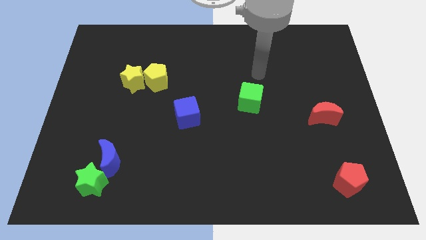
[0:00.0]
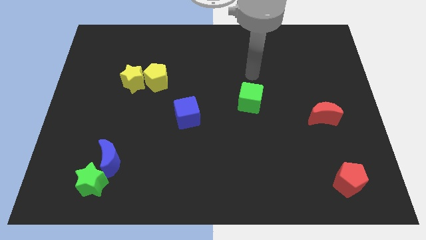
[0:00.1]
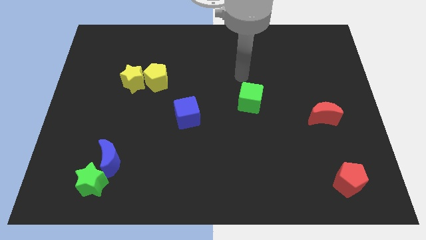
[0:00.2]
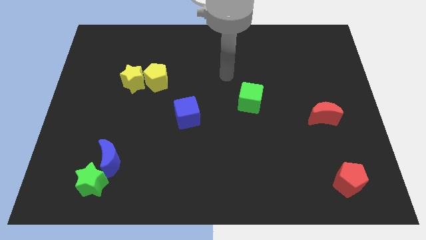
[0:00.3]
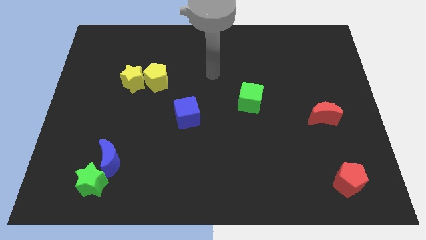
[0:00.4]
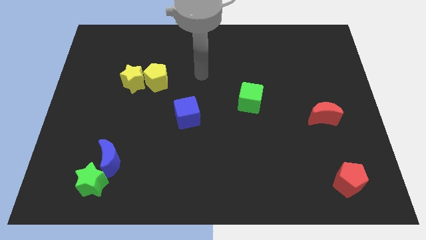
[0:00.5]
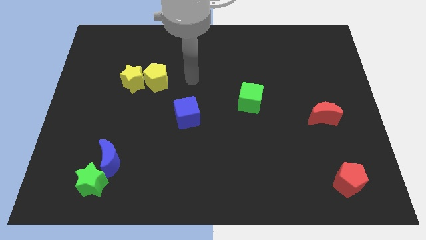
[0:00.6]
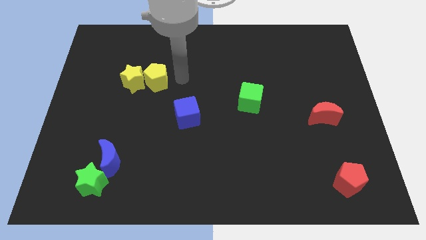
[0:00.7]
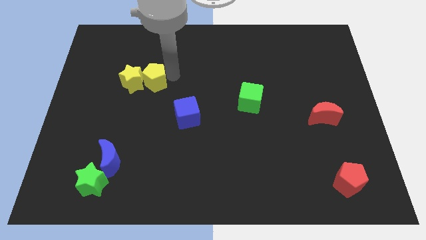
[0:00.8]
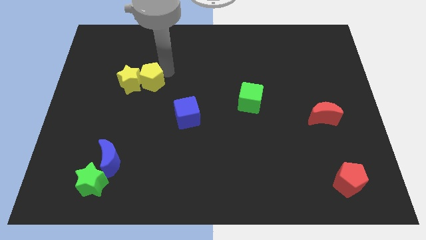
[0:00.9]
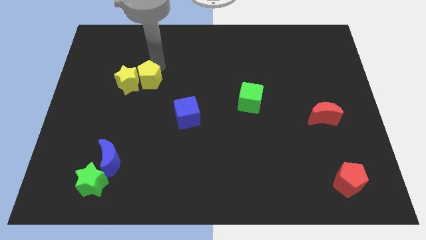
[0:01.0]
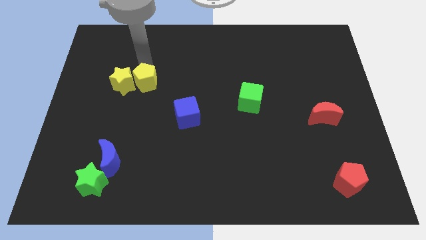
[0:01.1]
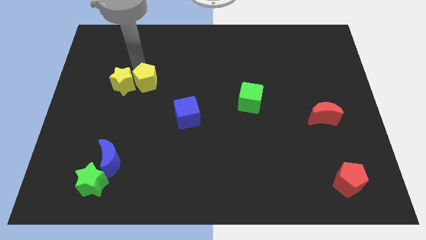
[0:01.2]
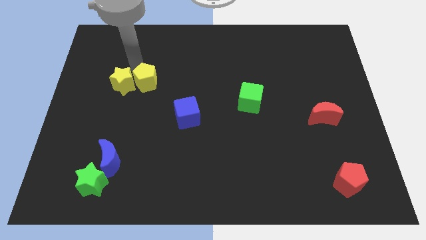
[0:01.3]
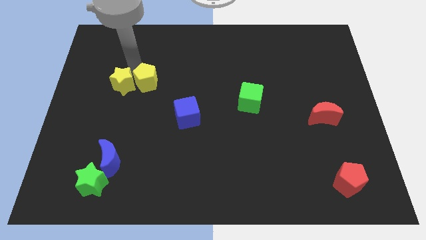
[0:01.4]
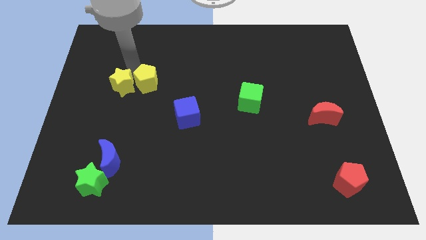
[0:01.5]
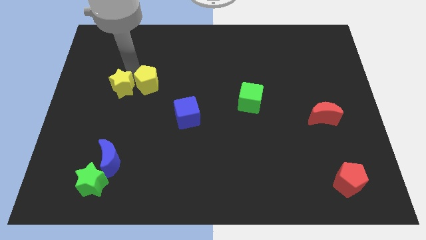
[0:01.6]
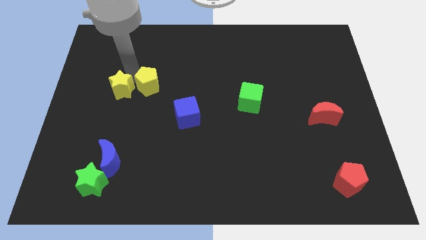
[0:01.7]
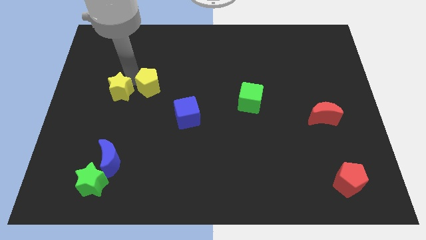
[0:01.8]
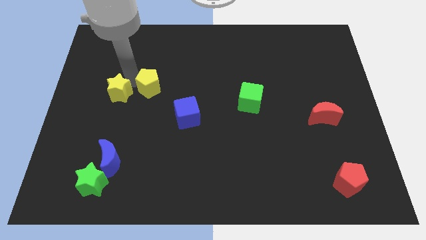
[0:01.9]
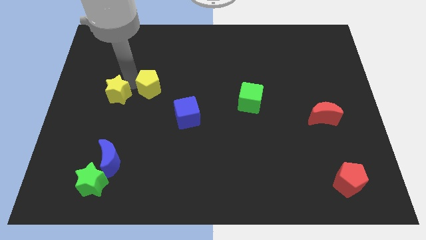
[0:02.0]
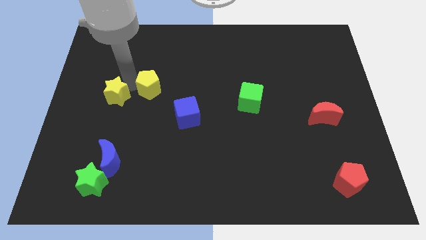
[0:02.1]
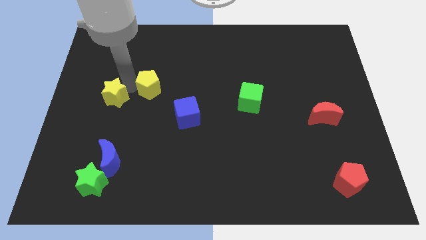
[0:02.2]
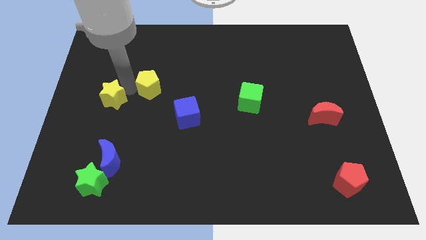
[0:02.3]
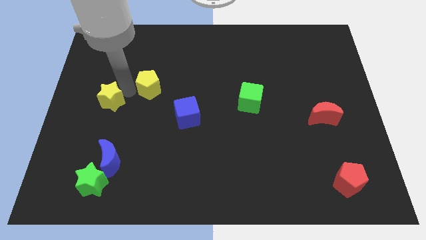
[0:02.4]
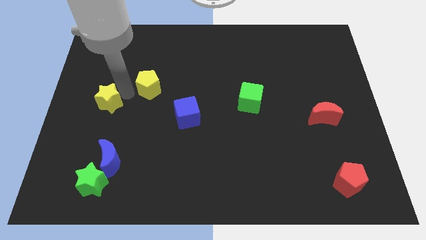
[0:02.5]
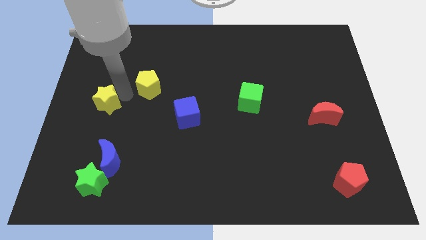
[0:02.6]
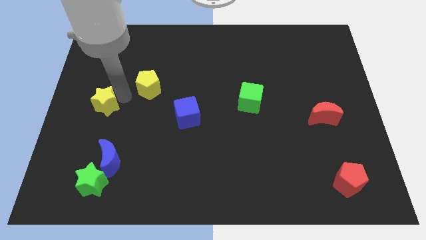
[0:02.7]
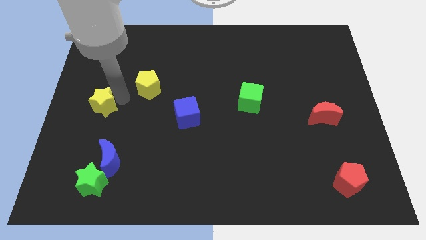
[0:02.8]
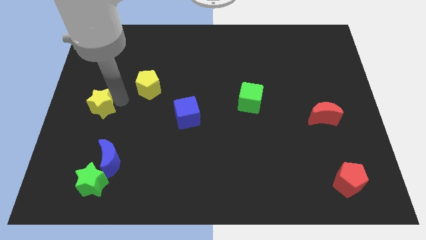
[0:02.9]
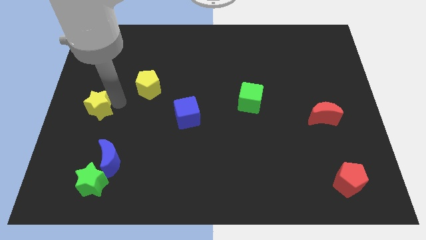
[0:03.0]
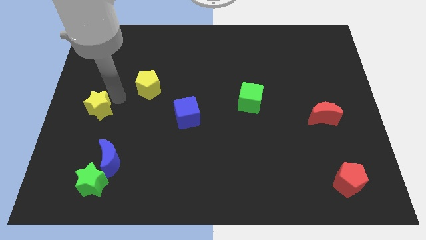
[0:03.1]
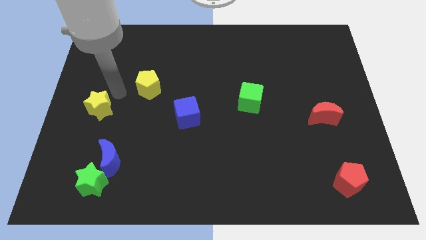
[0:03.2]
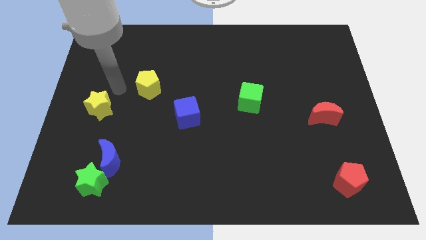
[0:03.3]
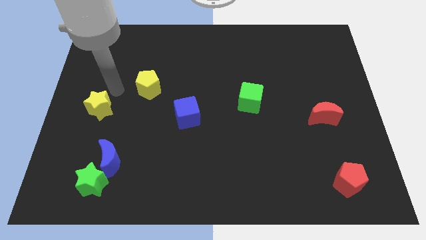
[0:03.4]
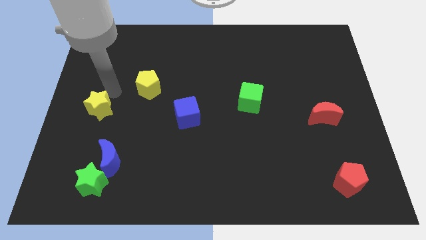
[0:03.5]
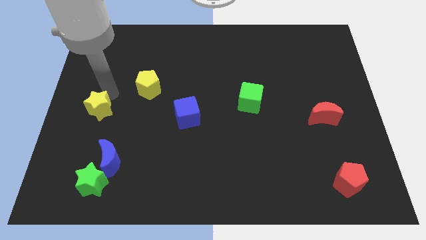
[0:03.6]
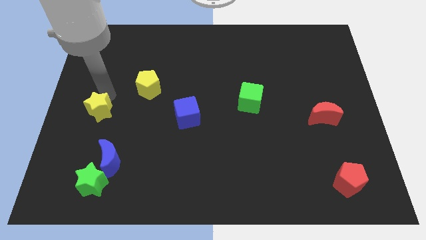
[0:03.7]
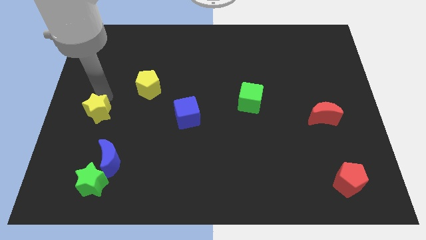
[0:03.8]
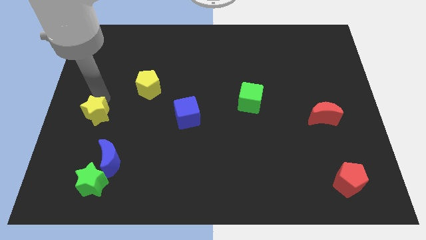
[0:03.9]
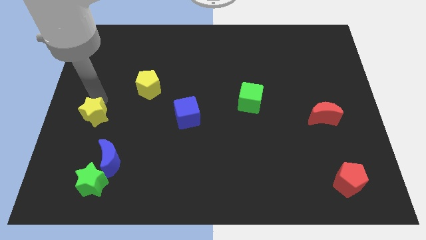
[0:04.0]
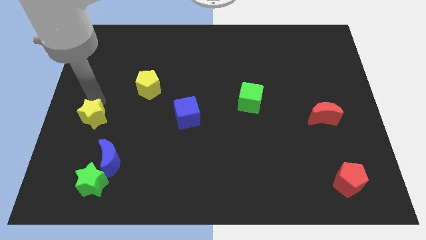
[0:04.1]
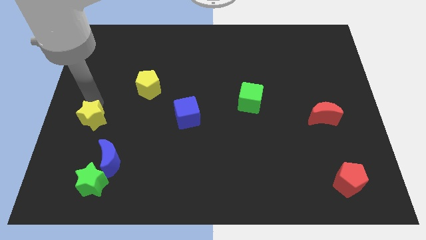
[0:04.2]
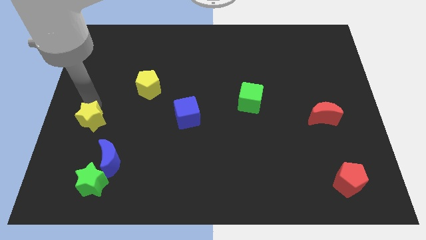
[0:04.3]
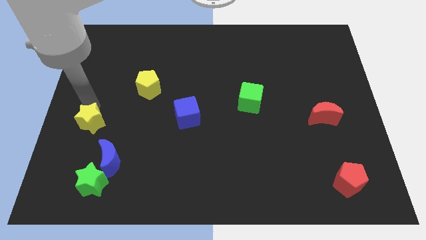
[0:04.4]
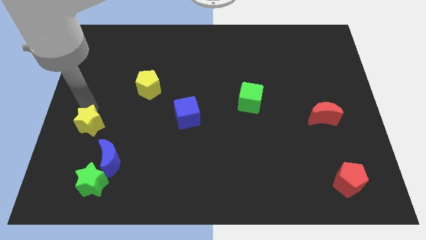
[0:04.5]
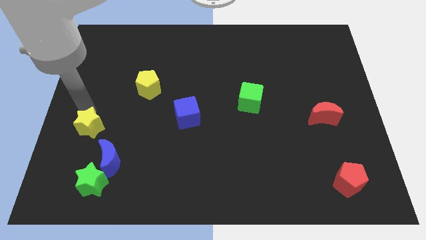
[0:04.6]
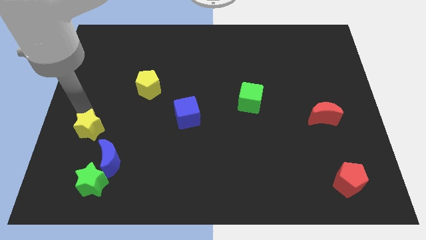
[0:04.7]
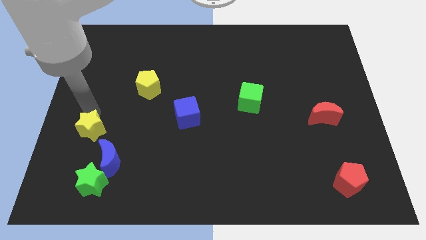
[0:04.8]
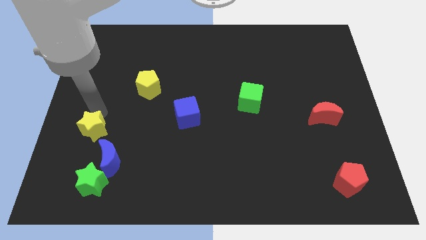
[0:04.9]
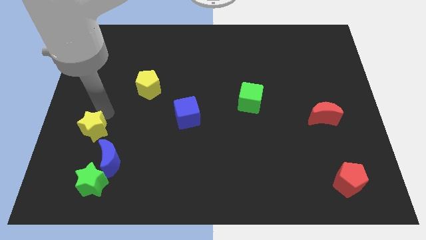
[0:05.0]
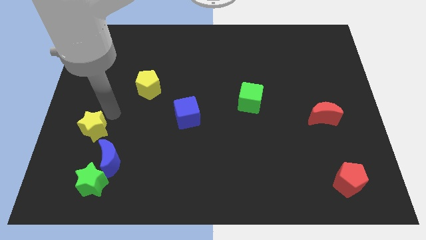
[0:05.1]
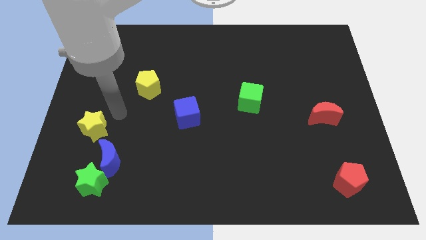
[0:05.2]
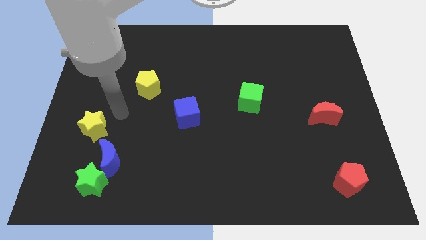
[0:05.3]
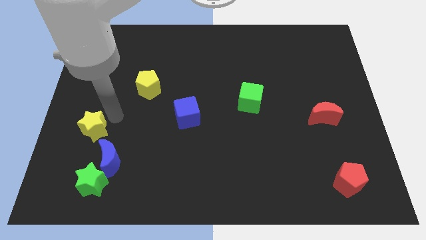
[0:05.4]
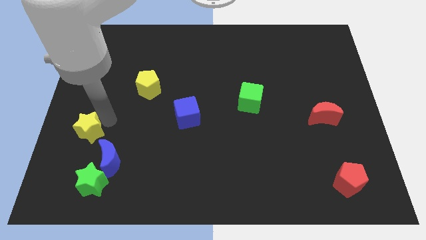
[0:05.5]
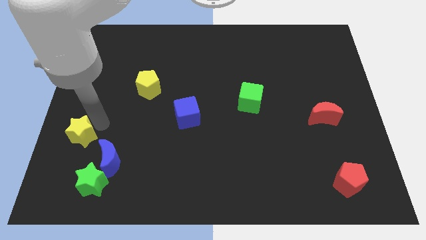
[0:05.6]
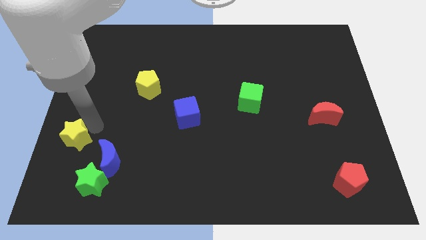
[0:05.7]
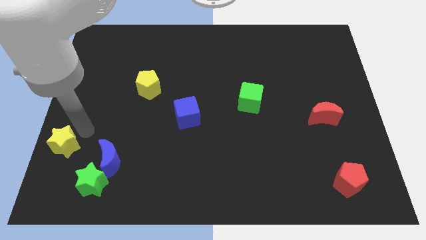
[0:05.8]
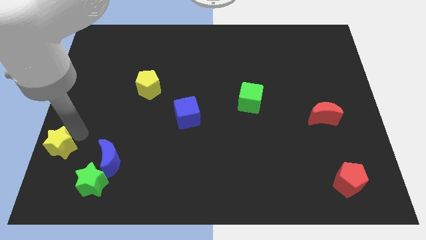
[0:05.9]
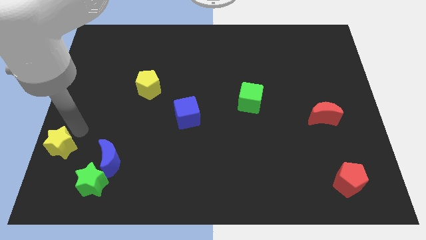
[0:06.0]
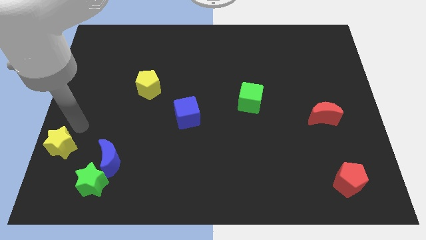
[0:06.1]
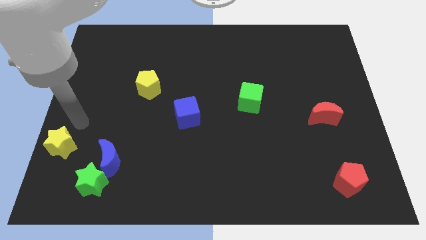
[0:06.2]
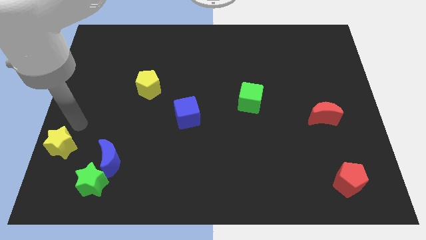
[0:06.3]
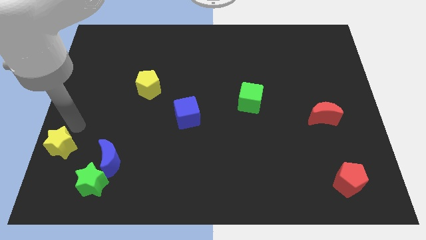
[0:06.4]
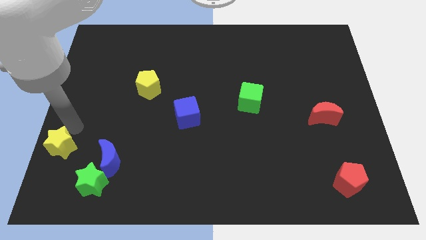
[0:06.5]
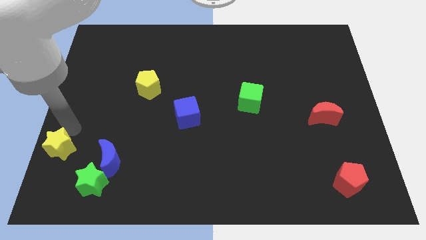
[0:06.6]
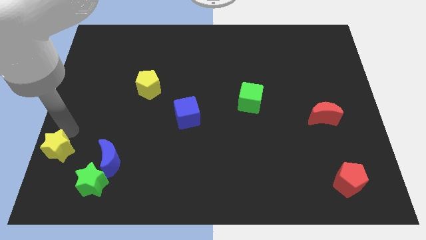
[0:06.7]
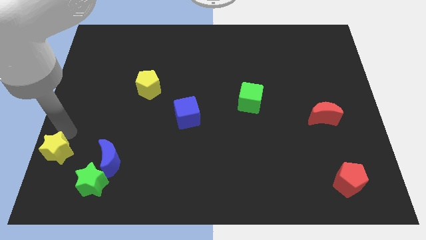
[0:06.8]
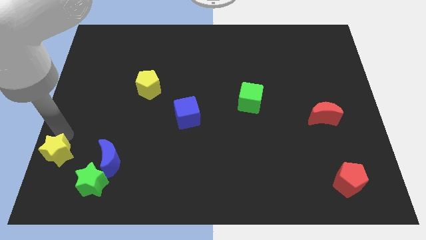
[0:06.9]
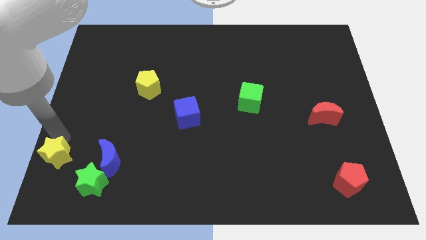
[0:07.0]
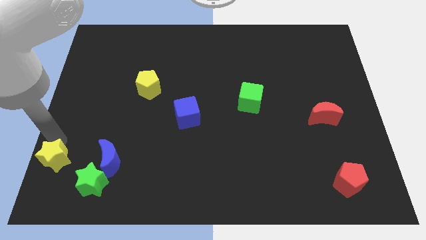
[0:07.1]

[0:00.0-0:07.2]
slide the yellow star to the lower left corner
